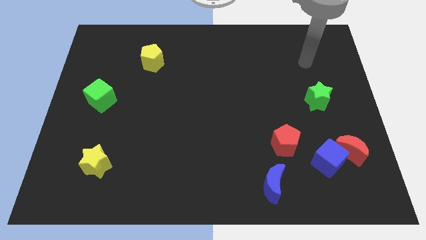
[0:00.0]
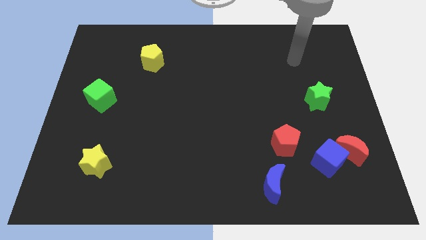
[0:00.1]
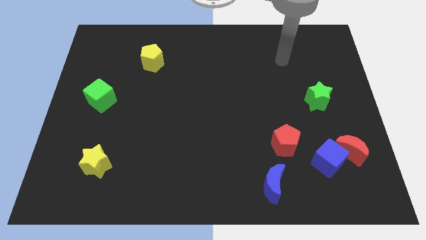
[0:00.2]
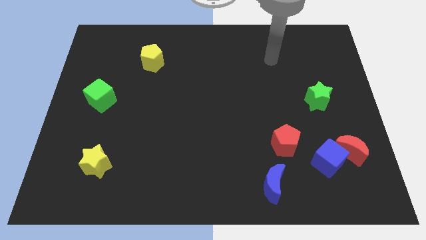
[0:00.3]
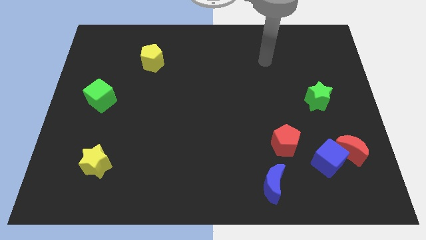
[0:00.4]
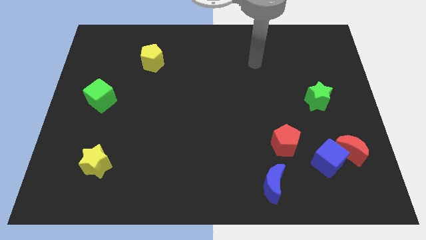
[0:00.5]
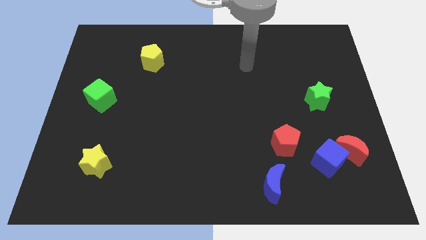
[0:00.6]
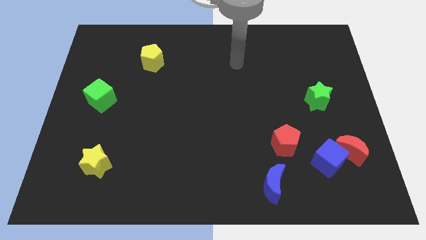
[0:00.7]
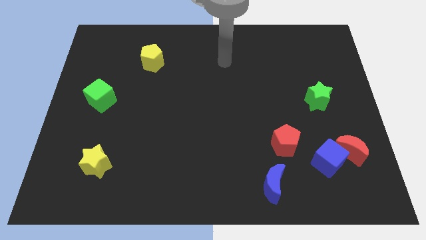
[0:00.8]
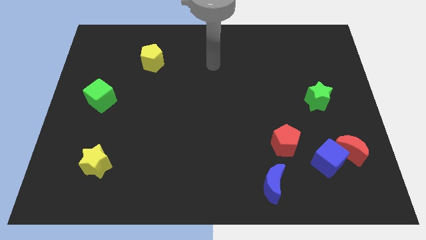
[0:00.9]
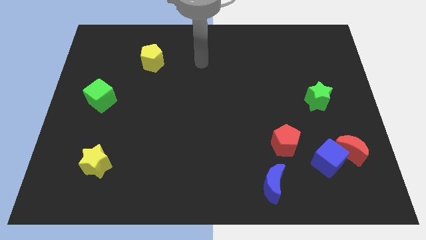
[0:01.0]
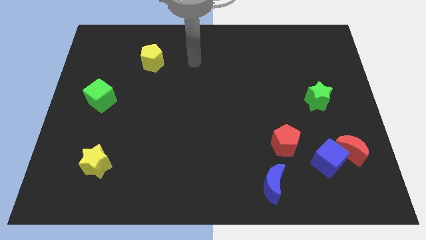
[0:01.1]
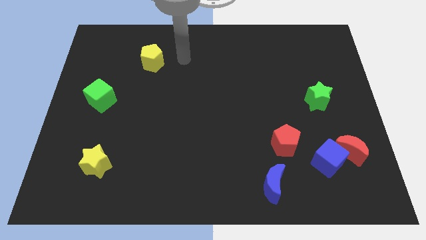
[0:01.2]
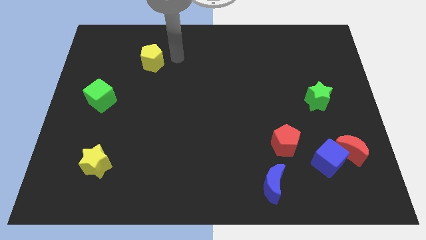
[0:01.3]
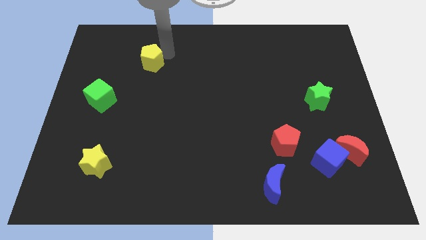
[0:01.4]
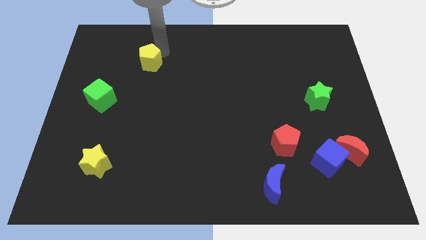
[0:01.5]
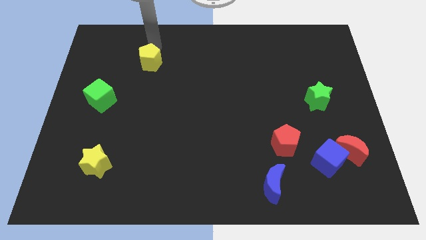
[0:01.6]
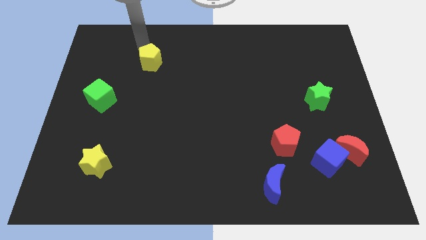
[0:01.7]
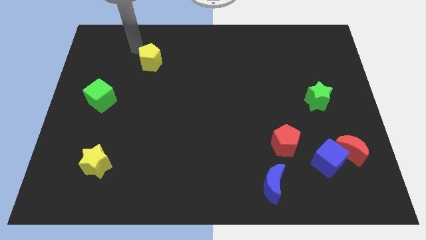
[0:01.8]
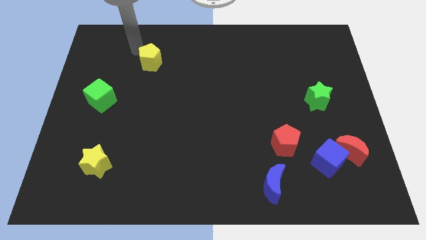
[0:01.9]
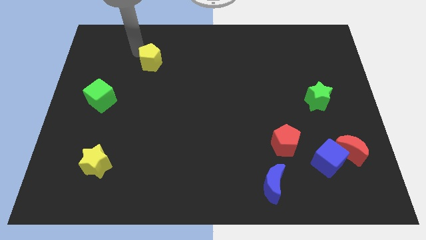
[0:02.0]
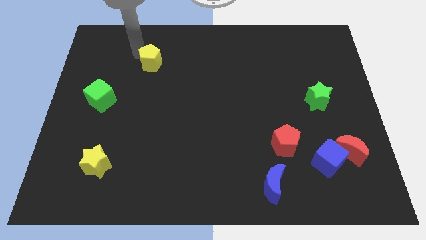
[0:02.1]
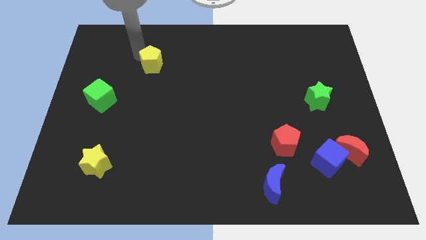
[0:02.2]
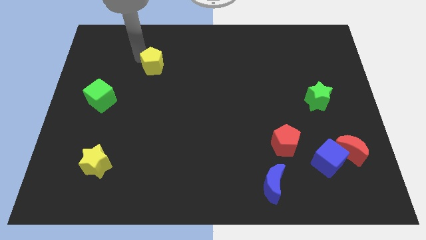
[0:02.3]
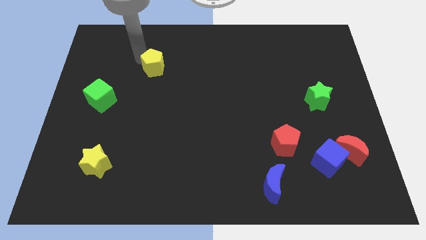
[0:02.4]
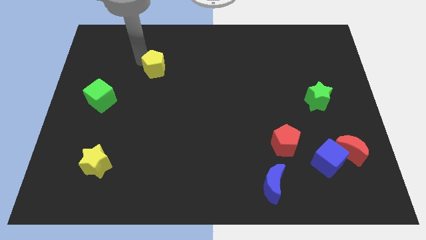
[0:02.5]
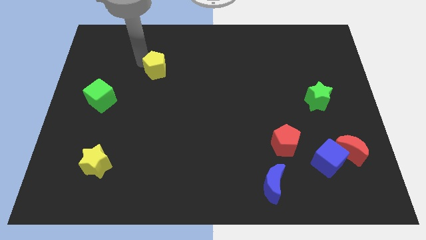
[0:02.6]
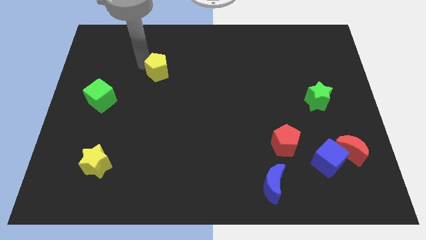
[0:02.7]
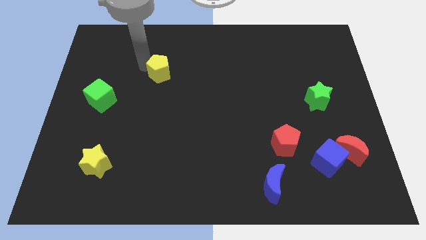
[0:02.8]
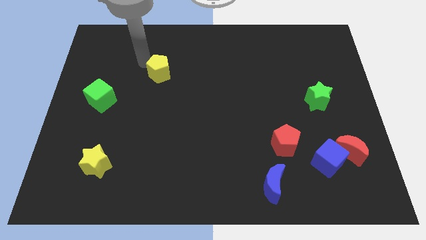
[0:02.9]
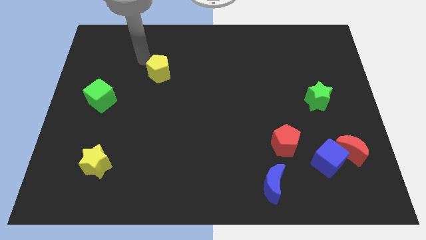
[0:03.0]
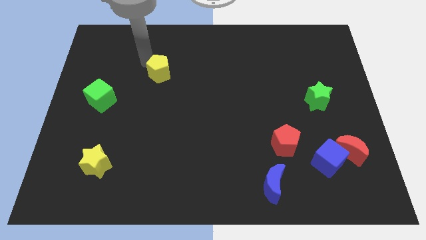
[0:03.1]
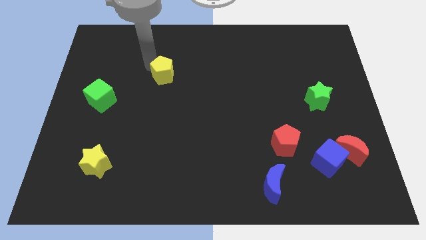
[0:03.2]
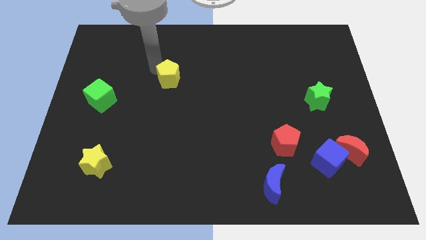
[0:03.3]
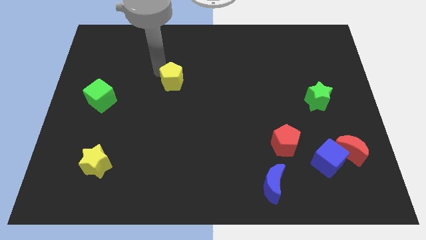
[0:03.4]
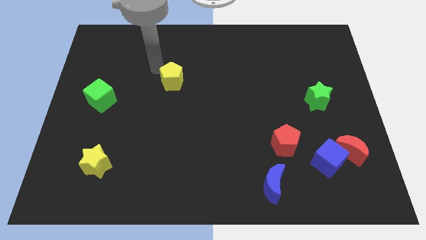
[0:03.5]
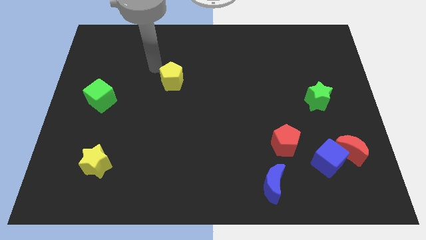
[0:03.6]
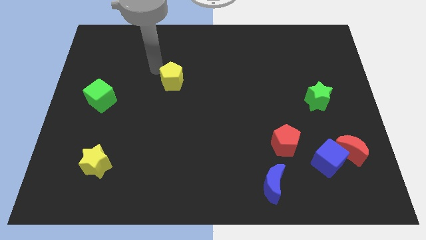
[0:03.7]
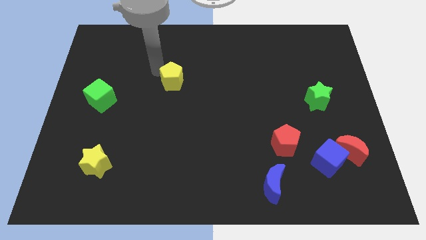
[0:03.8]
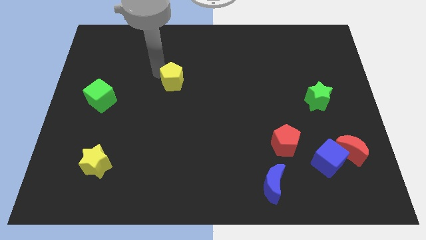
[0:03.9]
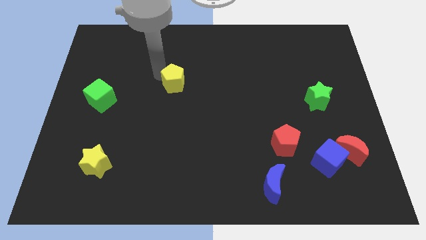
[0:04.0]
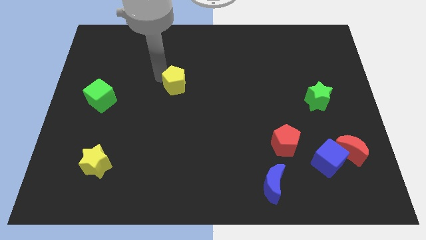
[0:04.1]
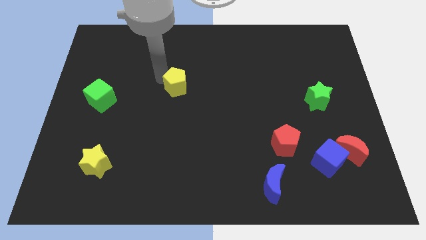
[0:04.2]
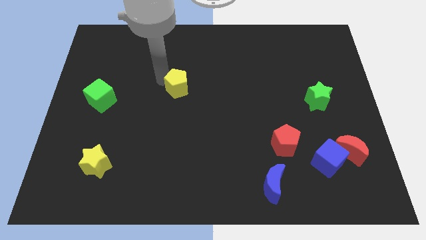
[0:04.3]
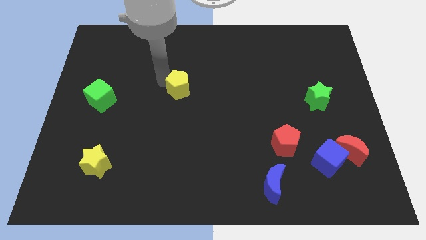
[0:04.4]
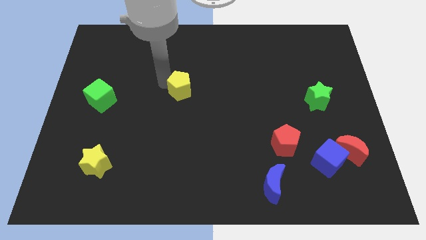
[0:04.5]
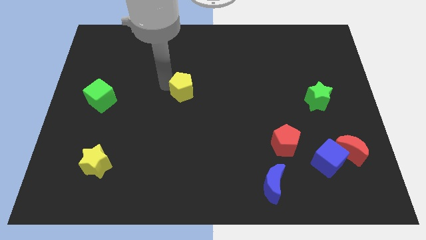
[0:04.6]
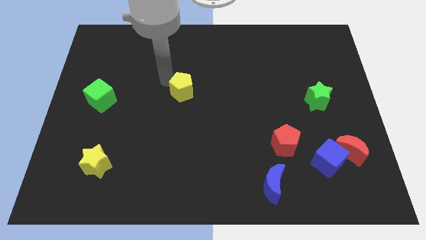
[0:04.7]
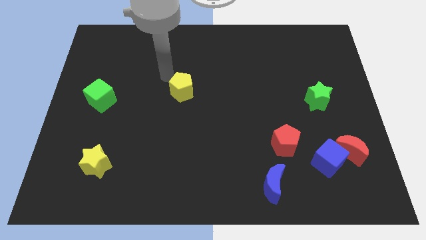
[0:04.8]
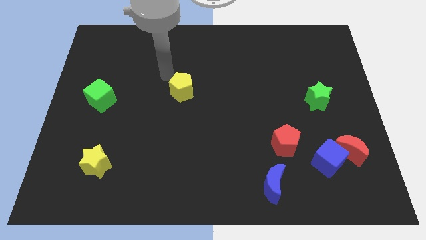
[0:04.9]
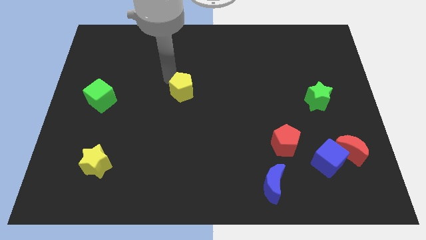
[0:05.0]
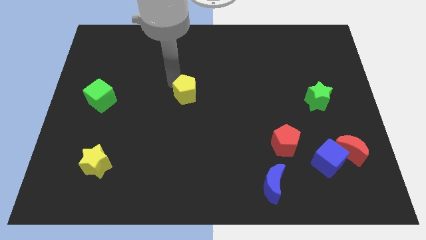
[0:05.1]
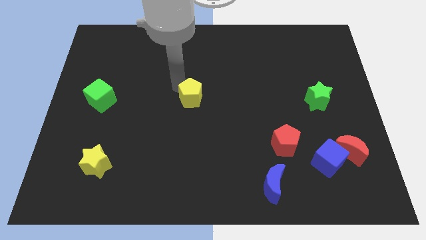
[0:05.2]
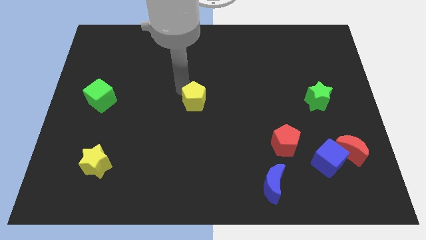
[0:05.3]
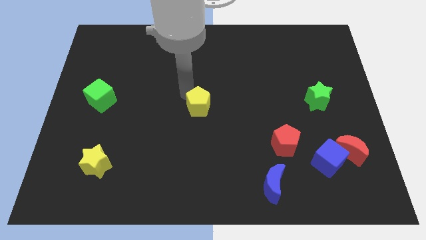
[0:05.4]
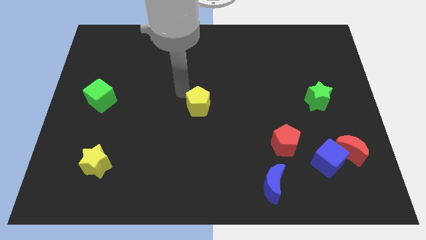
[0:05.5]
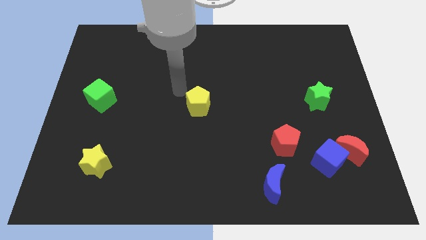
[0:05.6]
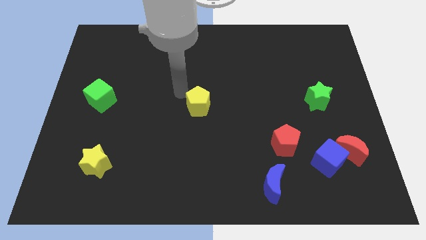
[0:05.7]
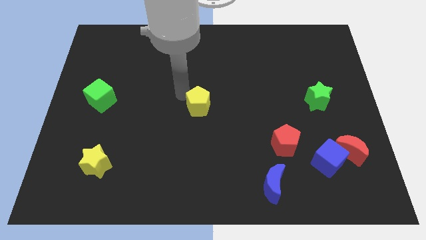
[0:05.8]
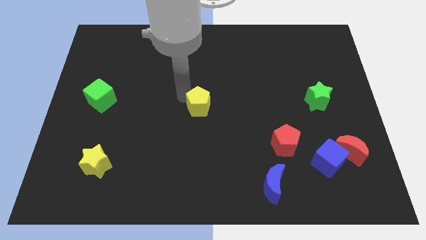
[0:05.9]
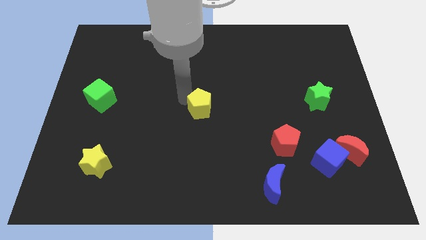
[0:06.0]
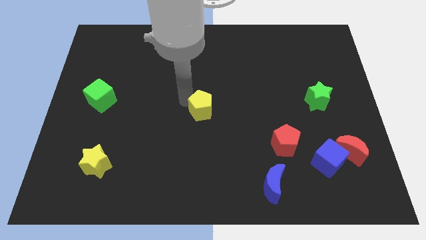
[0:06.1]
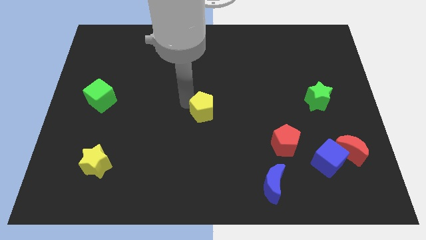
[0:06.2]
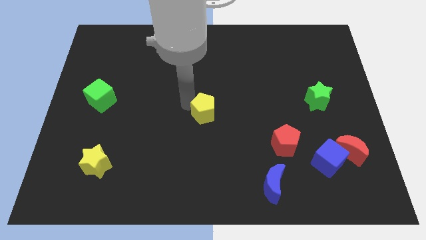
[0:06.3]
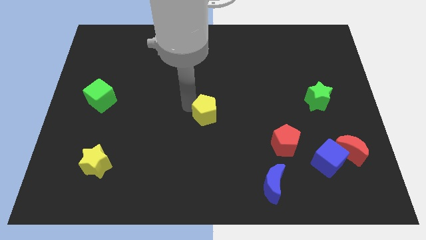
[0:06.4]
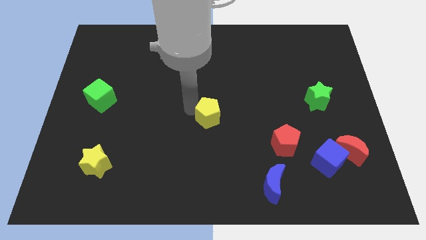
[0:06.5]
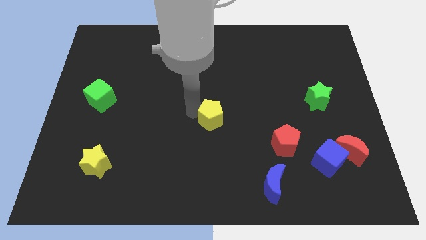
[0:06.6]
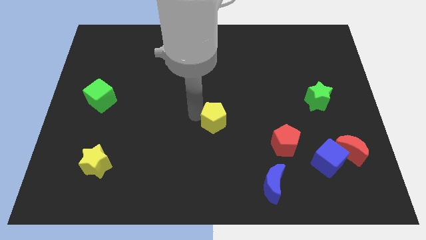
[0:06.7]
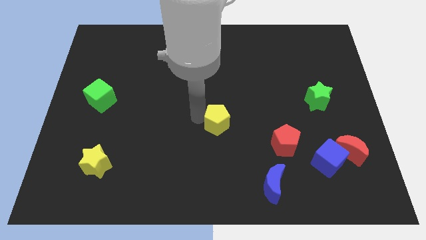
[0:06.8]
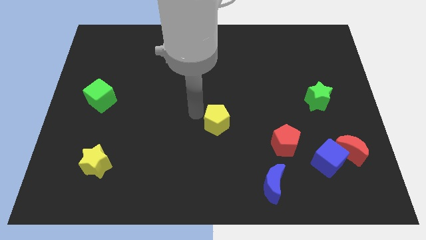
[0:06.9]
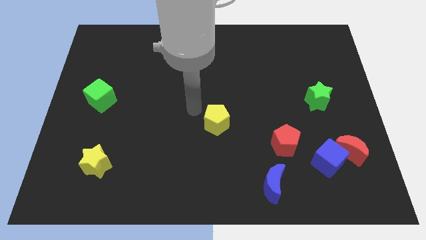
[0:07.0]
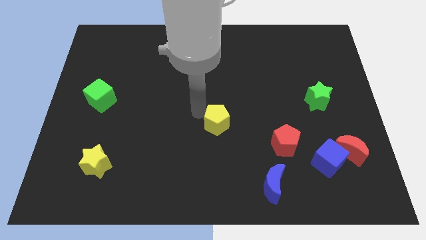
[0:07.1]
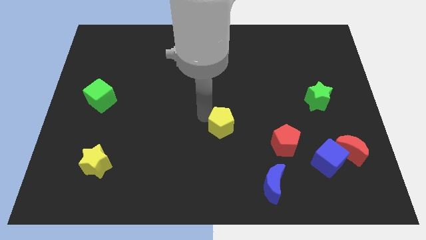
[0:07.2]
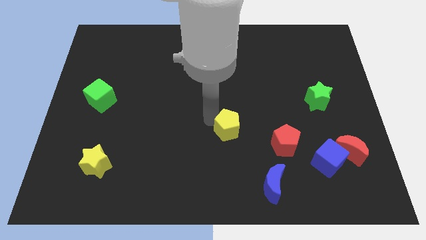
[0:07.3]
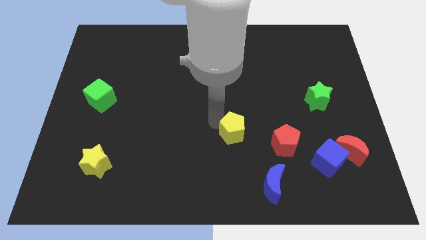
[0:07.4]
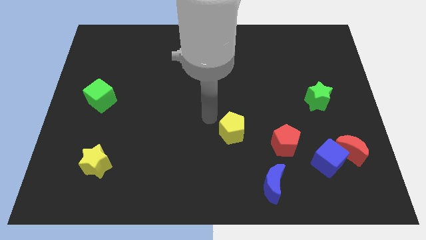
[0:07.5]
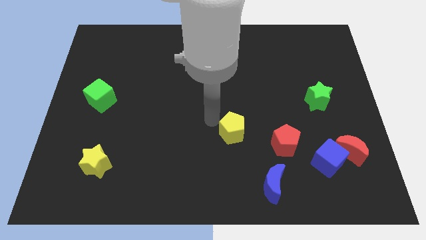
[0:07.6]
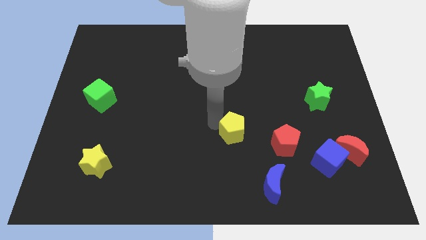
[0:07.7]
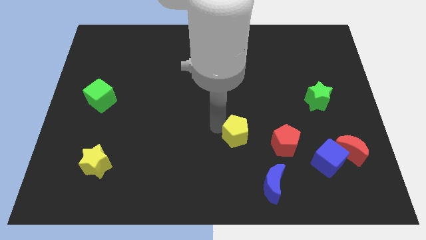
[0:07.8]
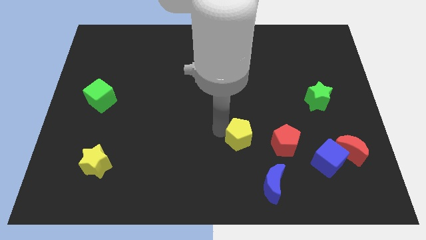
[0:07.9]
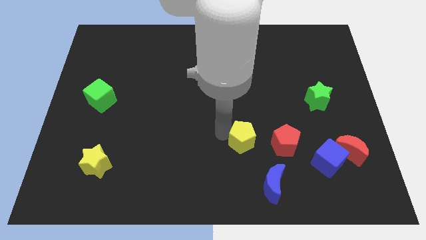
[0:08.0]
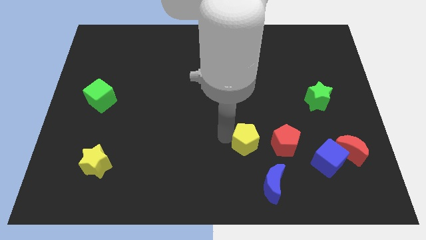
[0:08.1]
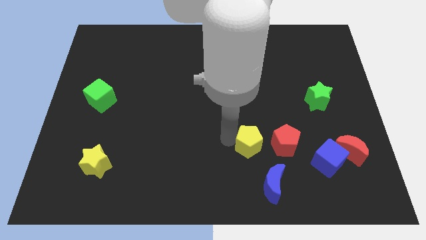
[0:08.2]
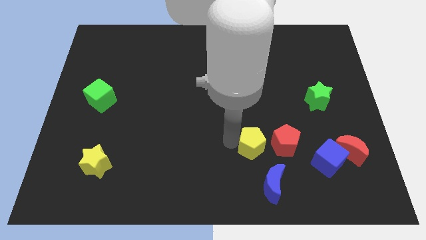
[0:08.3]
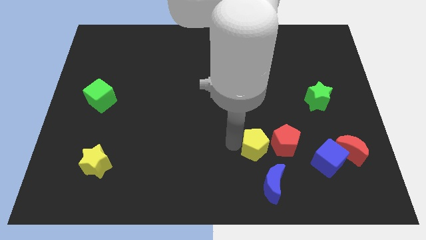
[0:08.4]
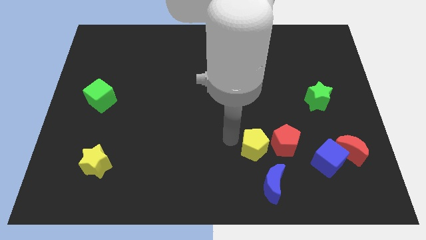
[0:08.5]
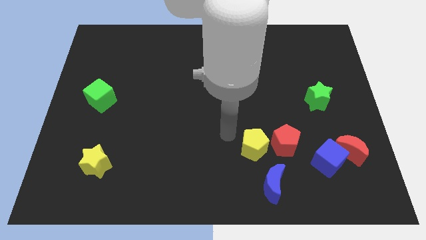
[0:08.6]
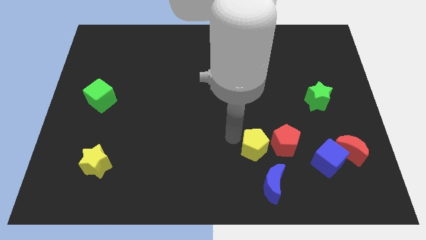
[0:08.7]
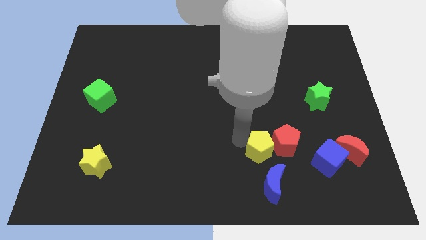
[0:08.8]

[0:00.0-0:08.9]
slide the yellow pentagon just left of the blue cube
